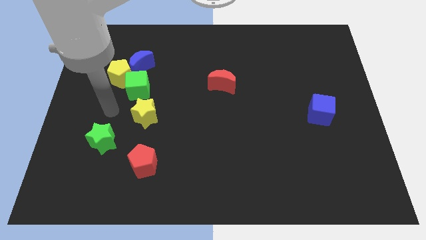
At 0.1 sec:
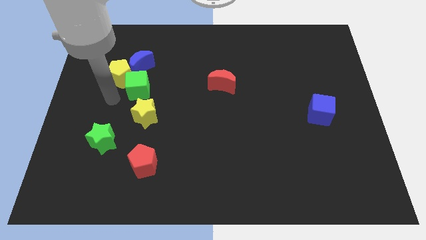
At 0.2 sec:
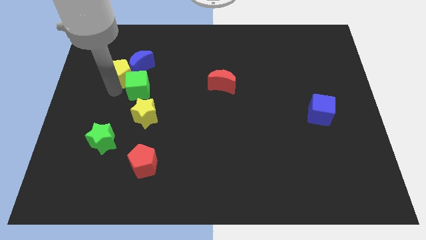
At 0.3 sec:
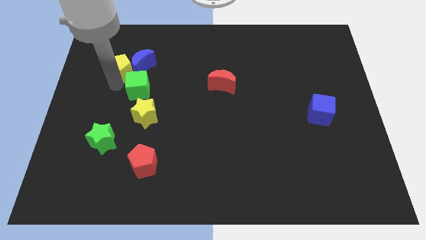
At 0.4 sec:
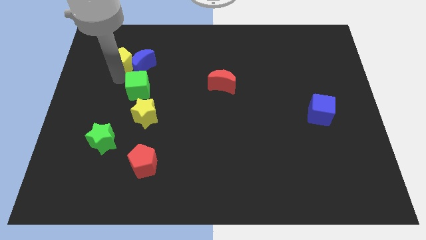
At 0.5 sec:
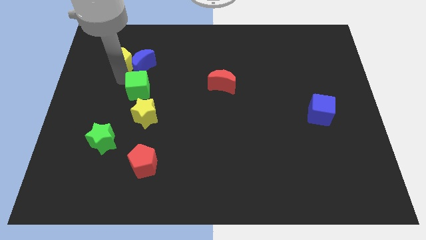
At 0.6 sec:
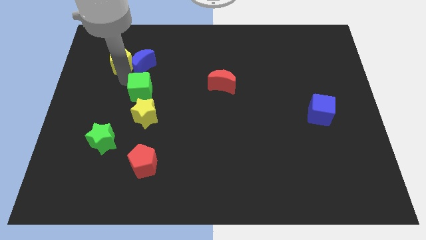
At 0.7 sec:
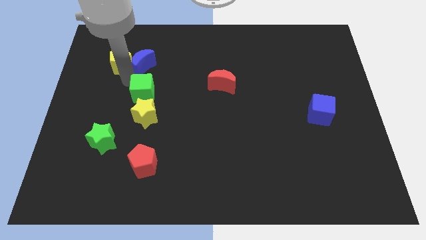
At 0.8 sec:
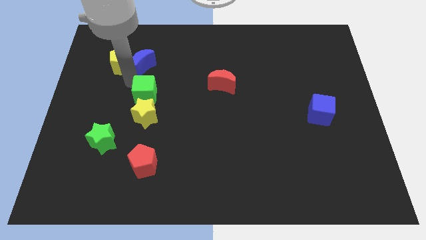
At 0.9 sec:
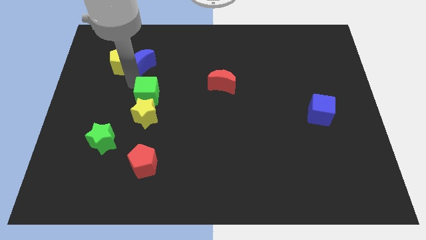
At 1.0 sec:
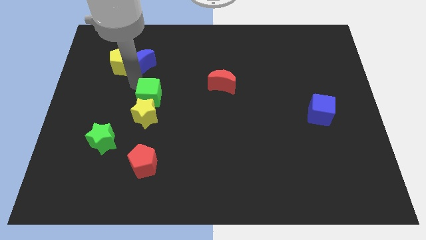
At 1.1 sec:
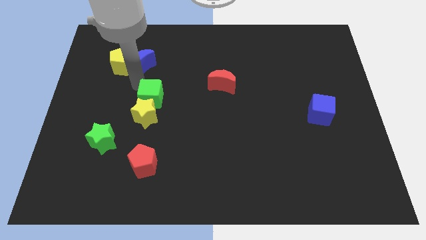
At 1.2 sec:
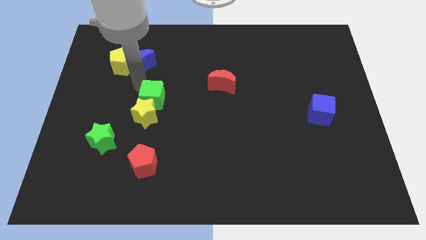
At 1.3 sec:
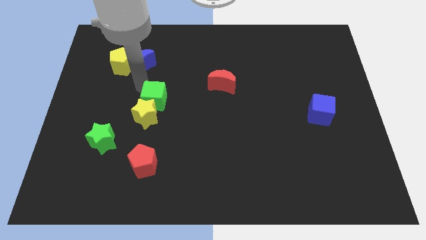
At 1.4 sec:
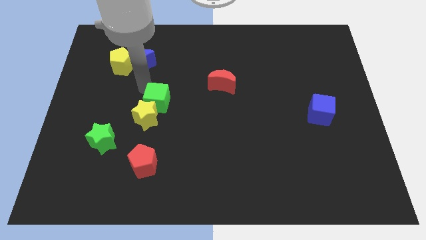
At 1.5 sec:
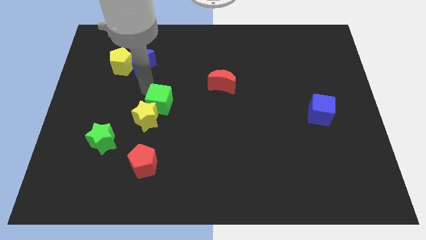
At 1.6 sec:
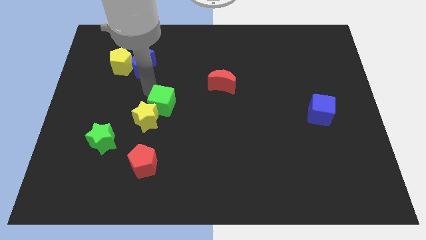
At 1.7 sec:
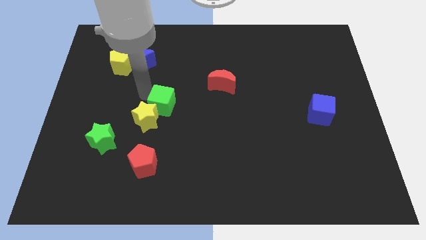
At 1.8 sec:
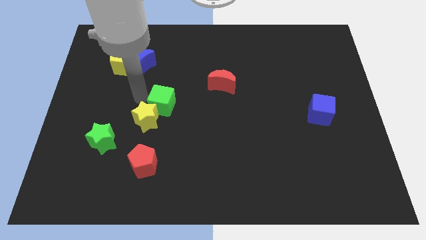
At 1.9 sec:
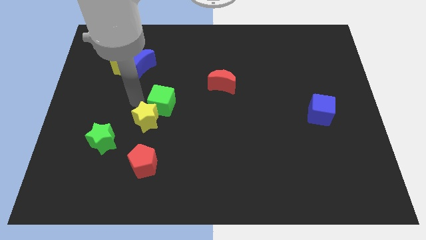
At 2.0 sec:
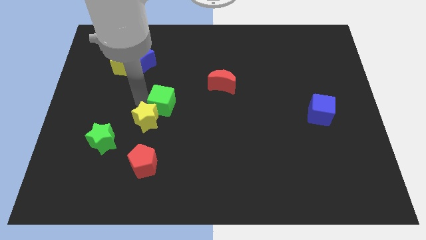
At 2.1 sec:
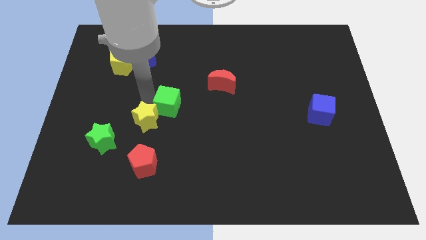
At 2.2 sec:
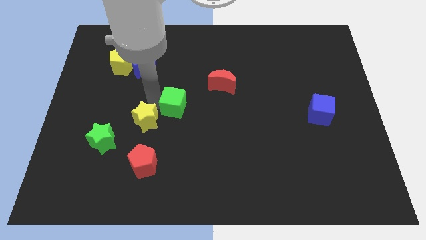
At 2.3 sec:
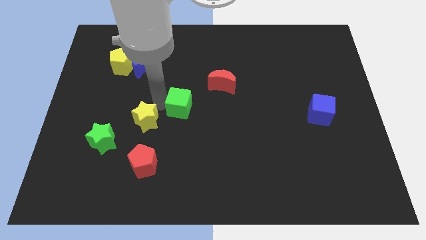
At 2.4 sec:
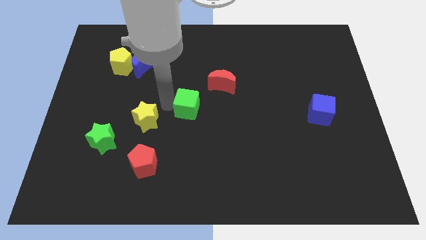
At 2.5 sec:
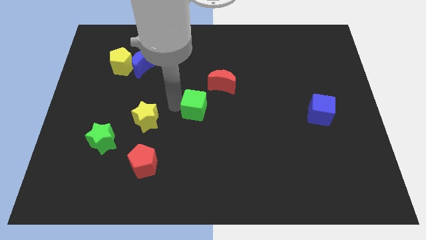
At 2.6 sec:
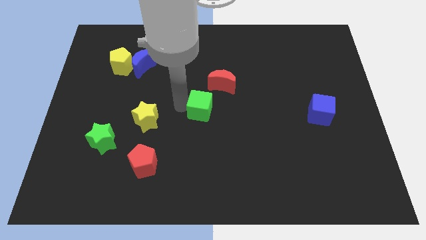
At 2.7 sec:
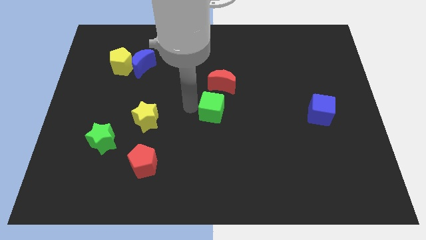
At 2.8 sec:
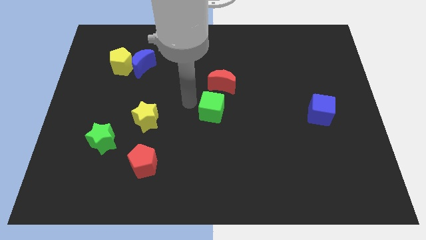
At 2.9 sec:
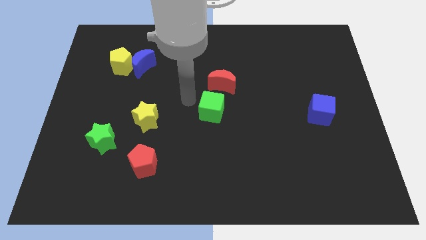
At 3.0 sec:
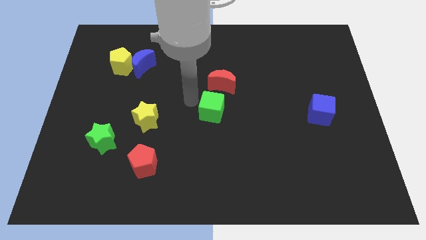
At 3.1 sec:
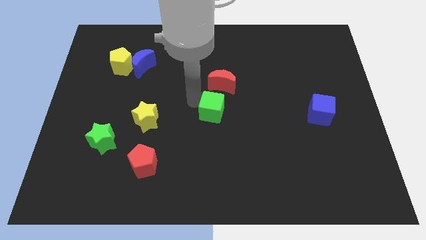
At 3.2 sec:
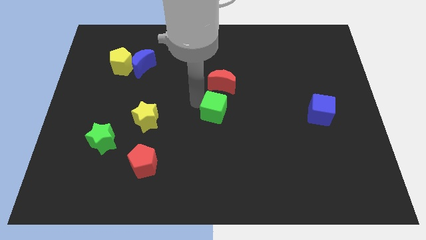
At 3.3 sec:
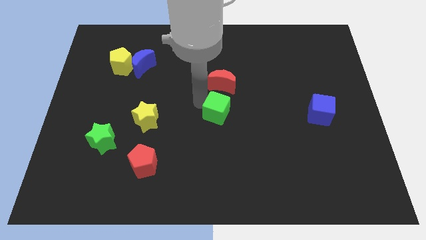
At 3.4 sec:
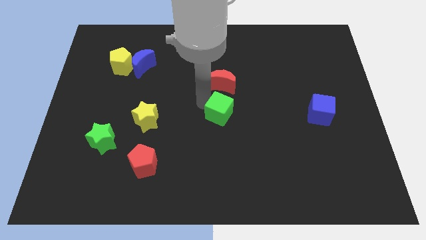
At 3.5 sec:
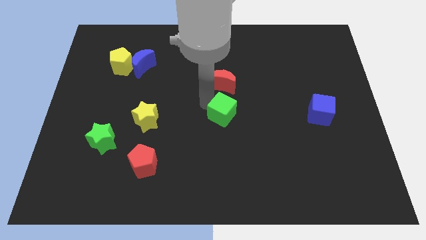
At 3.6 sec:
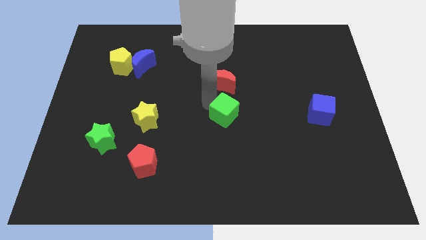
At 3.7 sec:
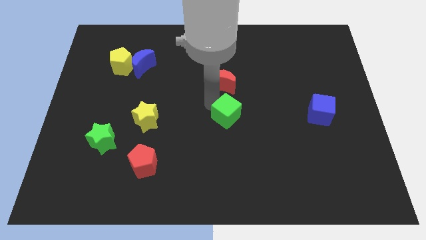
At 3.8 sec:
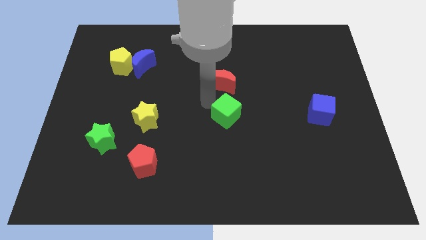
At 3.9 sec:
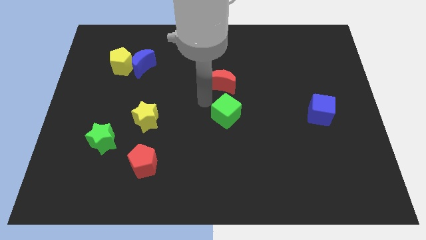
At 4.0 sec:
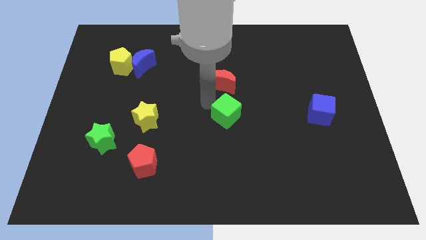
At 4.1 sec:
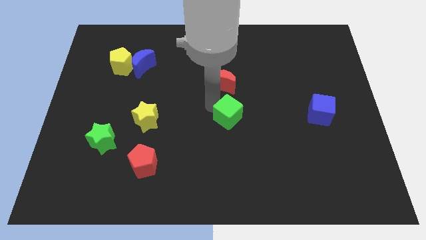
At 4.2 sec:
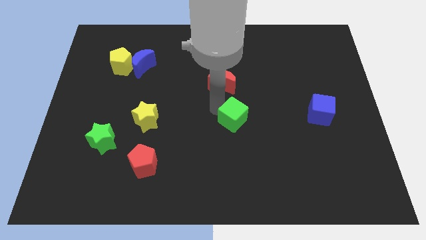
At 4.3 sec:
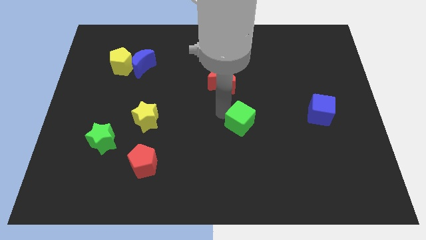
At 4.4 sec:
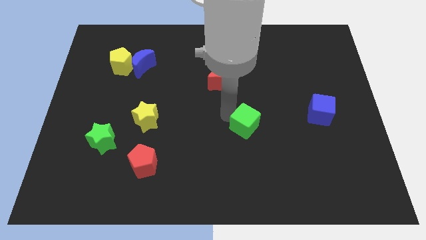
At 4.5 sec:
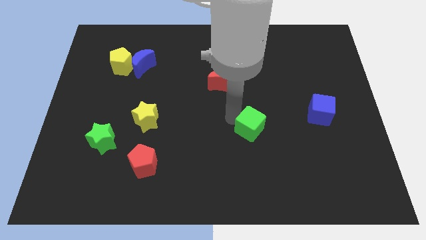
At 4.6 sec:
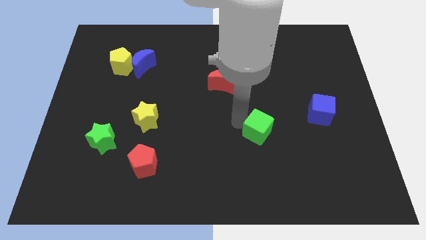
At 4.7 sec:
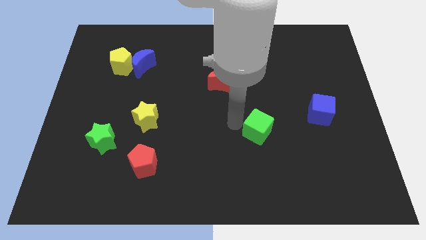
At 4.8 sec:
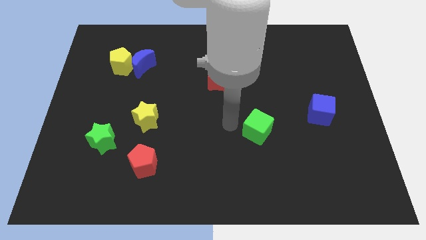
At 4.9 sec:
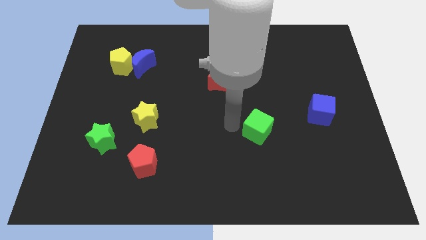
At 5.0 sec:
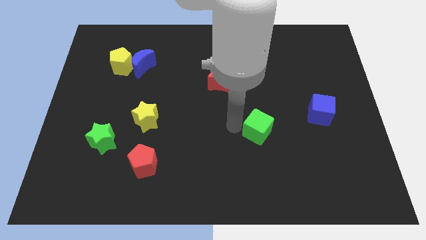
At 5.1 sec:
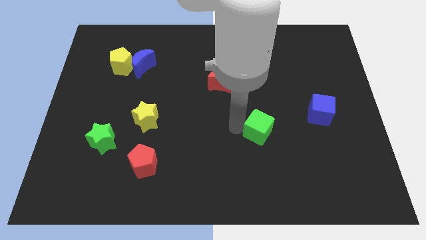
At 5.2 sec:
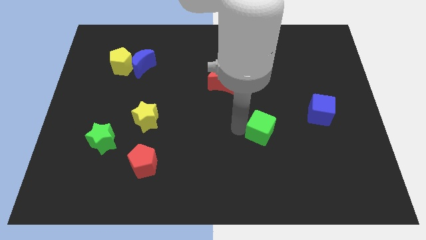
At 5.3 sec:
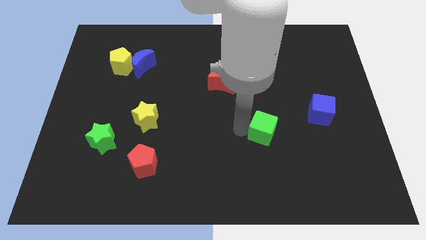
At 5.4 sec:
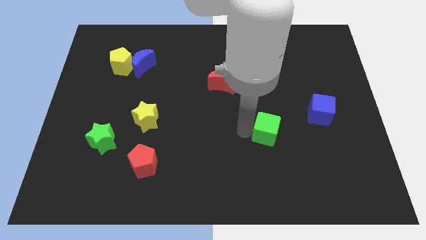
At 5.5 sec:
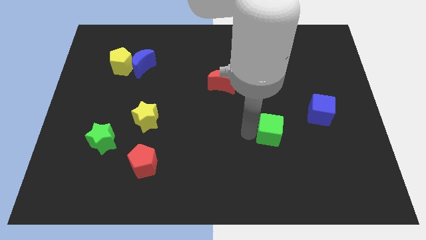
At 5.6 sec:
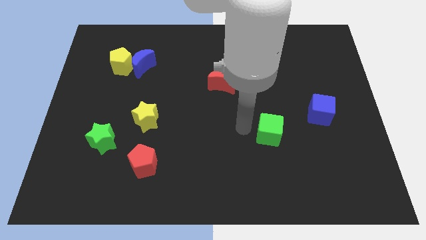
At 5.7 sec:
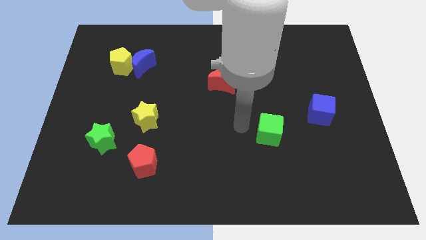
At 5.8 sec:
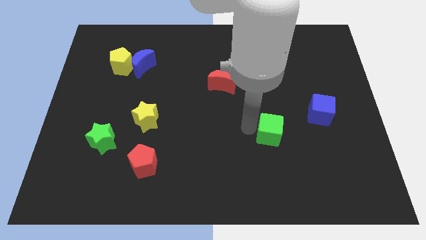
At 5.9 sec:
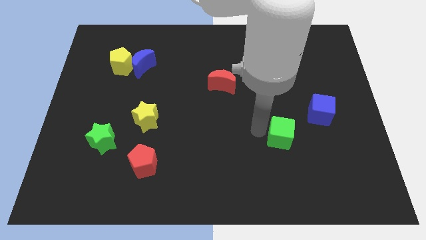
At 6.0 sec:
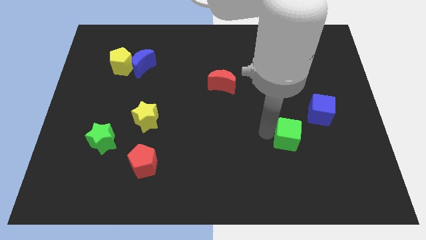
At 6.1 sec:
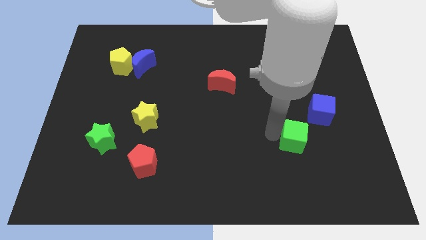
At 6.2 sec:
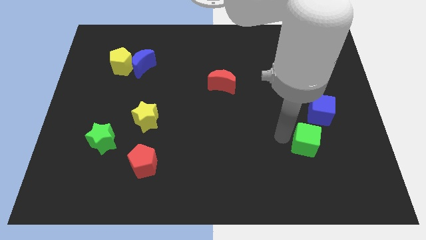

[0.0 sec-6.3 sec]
push the green cube to the bottom of the blue cube
